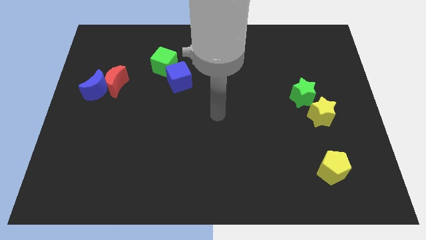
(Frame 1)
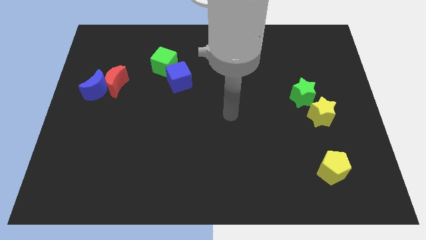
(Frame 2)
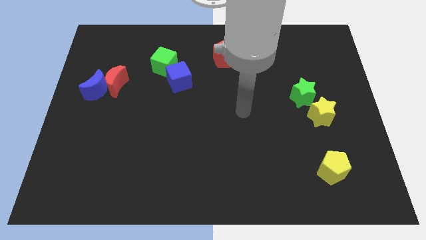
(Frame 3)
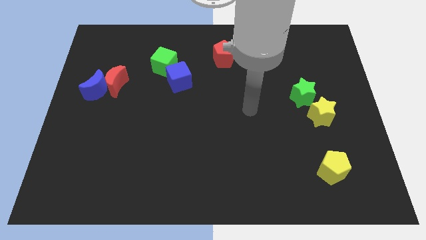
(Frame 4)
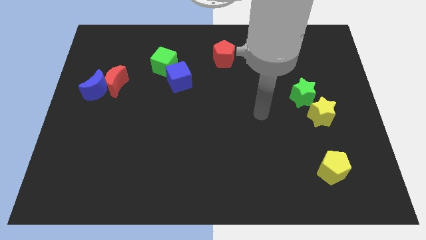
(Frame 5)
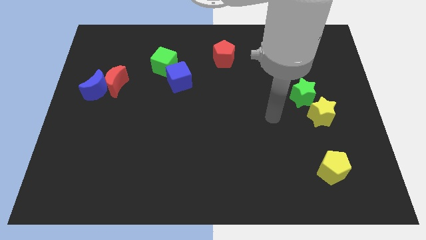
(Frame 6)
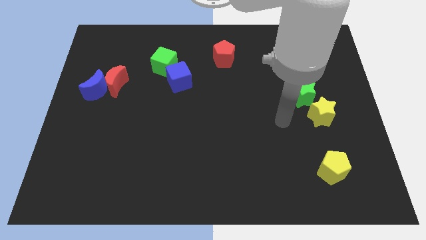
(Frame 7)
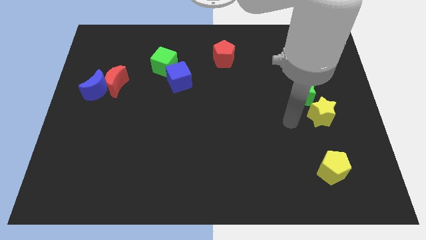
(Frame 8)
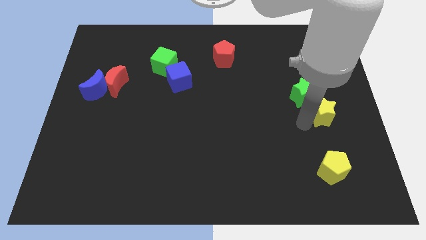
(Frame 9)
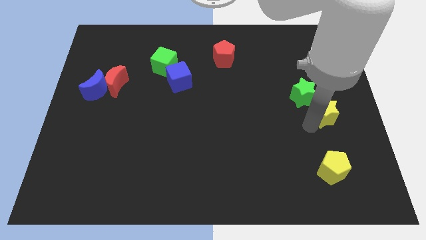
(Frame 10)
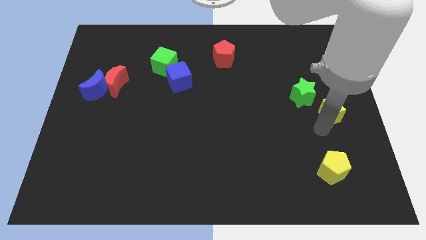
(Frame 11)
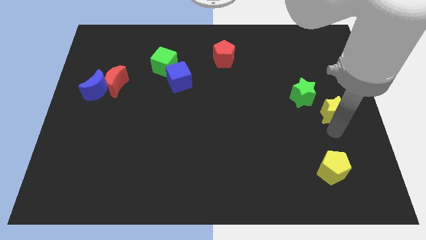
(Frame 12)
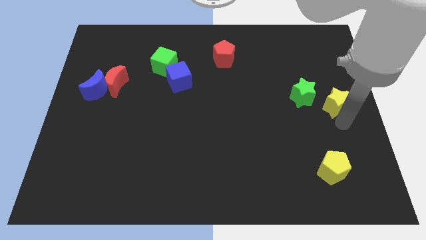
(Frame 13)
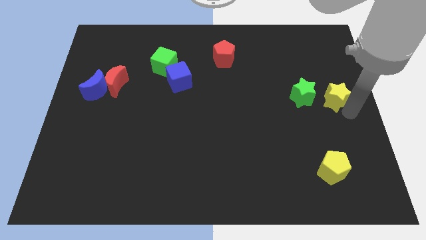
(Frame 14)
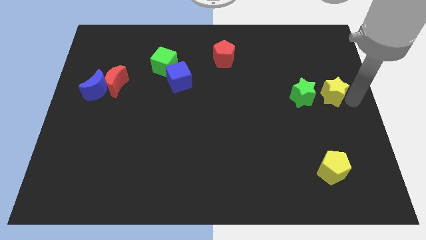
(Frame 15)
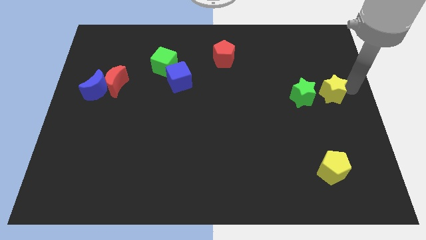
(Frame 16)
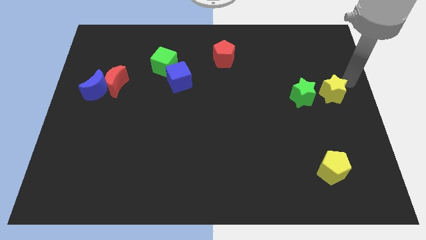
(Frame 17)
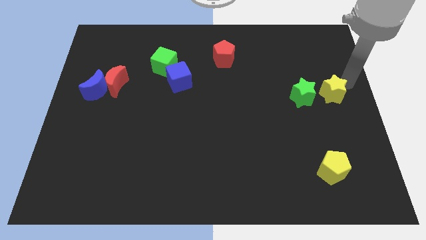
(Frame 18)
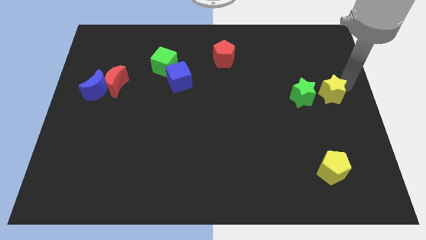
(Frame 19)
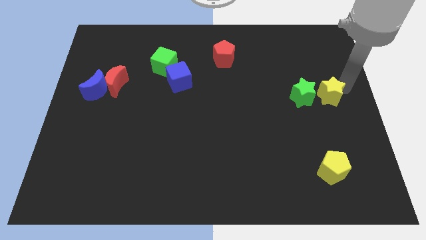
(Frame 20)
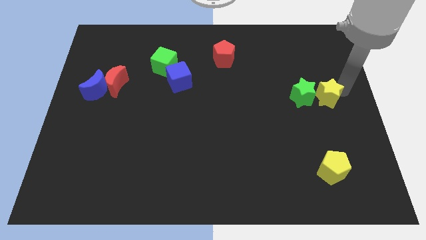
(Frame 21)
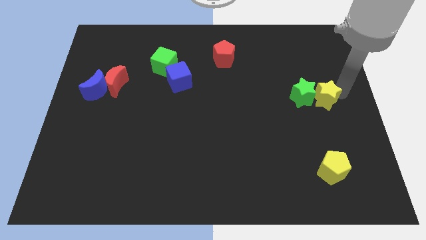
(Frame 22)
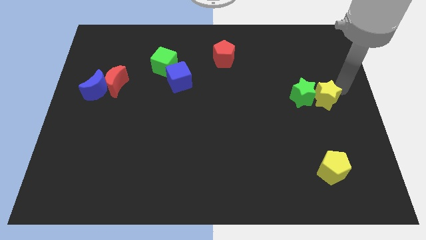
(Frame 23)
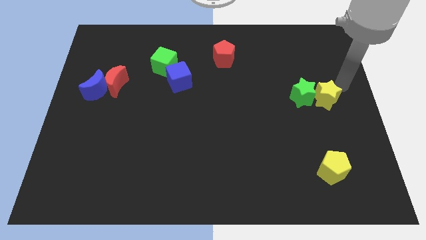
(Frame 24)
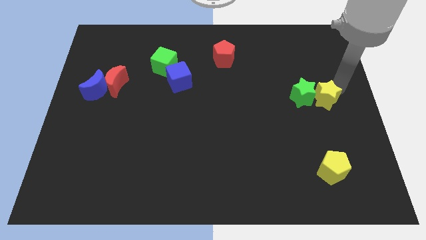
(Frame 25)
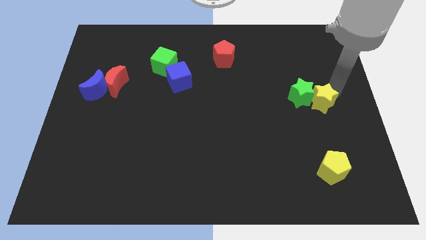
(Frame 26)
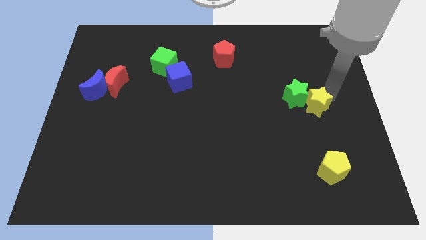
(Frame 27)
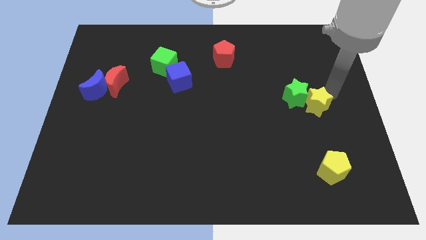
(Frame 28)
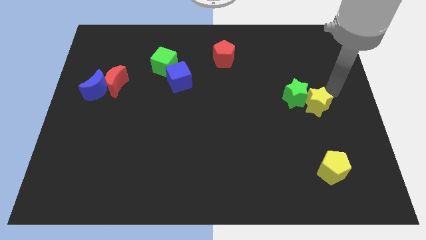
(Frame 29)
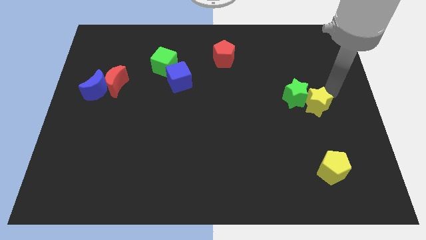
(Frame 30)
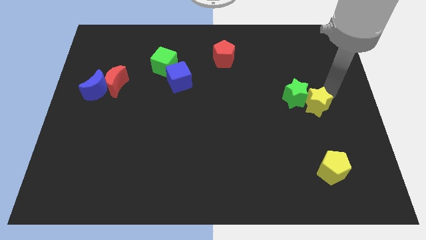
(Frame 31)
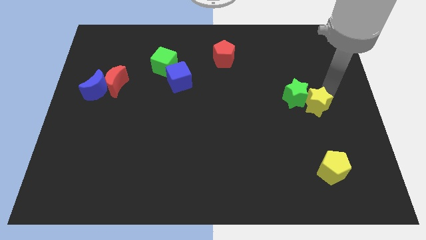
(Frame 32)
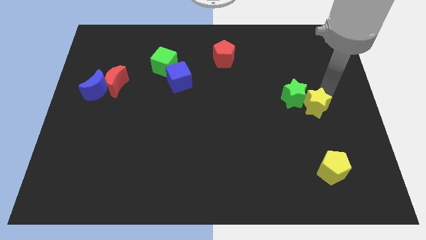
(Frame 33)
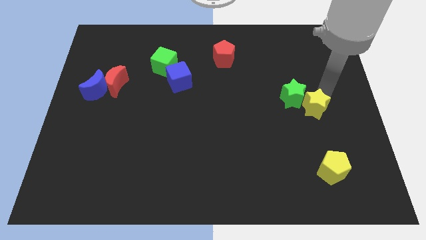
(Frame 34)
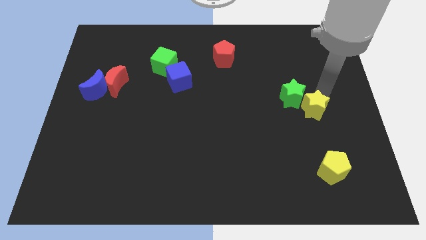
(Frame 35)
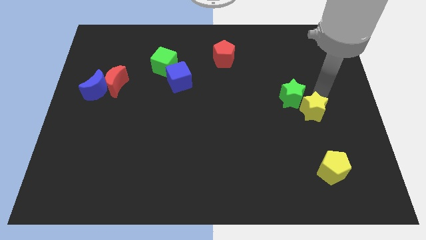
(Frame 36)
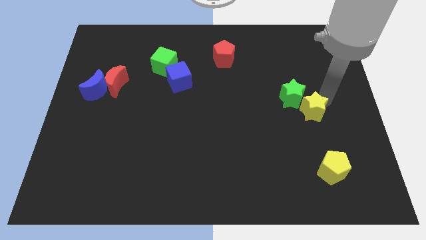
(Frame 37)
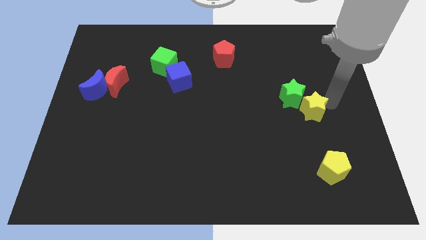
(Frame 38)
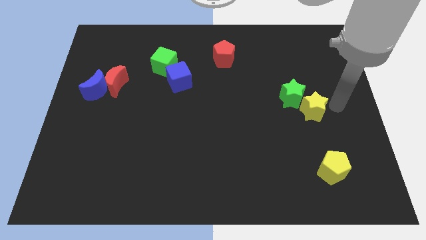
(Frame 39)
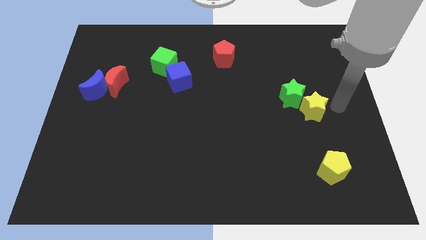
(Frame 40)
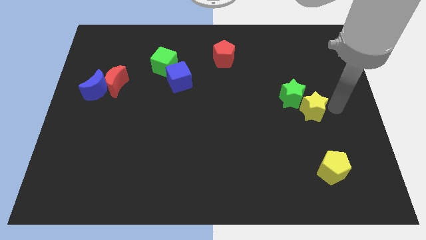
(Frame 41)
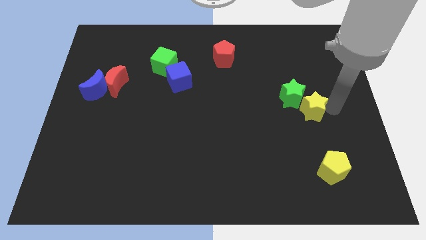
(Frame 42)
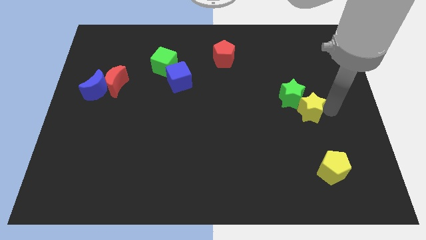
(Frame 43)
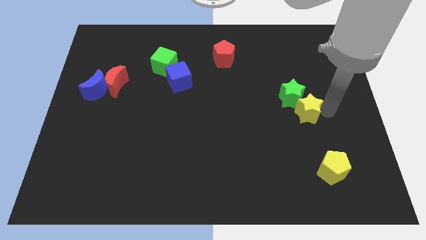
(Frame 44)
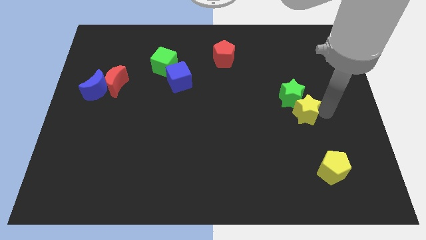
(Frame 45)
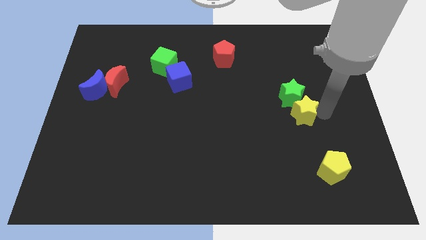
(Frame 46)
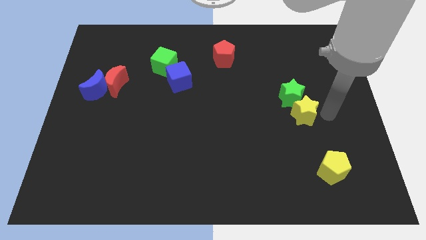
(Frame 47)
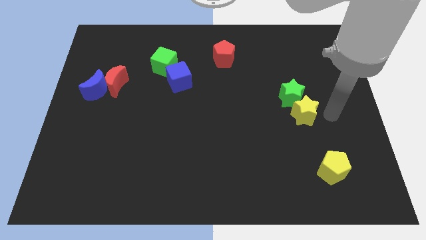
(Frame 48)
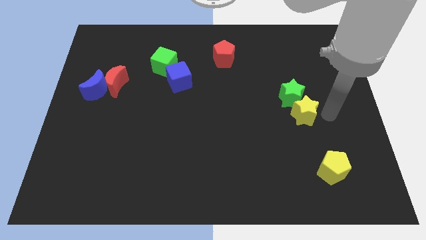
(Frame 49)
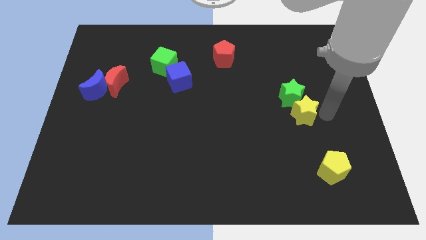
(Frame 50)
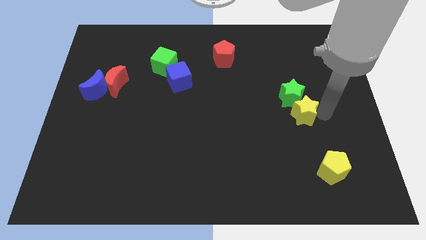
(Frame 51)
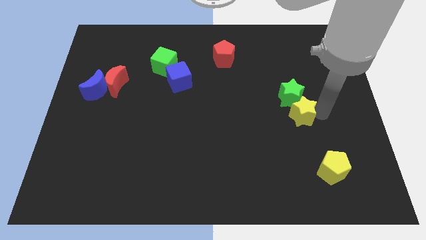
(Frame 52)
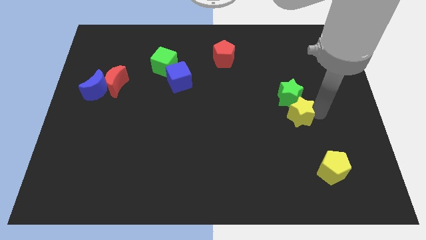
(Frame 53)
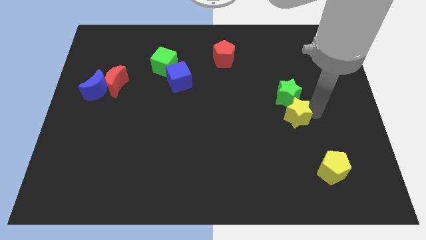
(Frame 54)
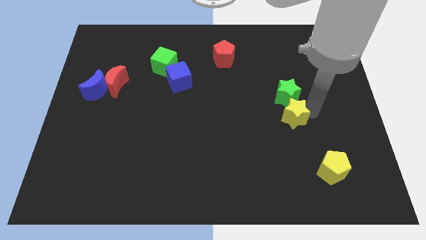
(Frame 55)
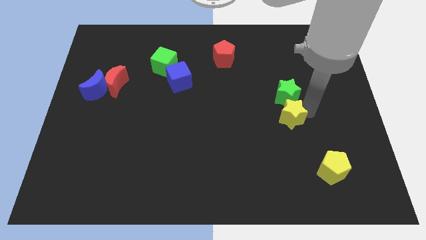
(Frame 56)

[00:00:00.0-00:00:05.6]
push the yellow star a little bit left

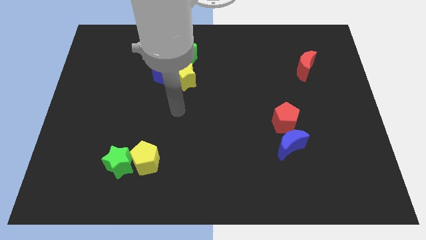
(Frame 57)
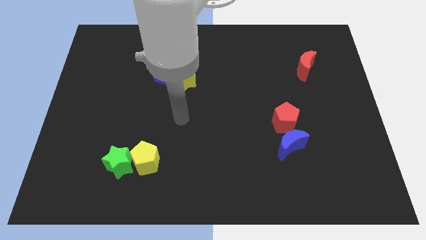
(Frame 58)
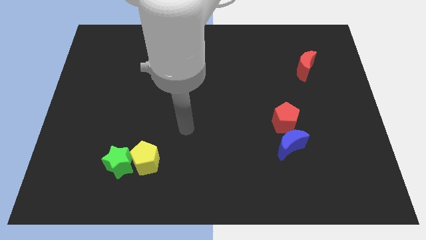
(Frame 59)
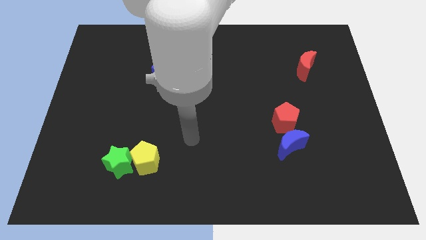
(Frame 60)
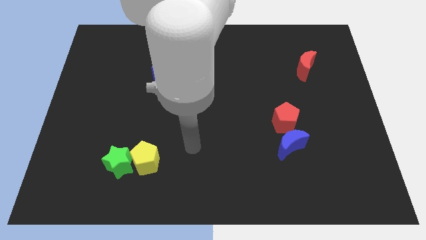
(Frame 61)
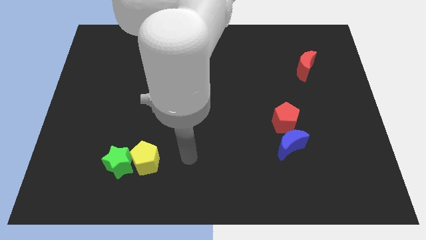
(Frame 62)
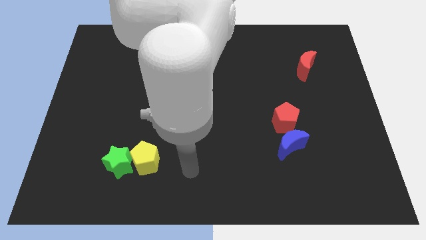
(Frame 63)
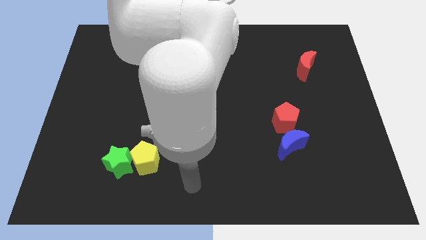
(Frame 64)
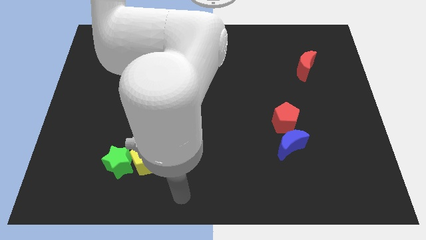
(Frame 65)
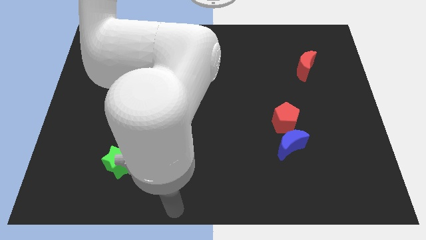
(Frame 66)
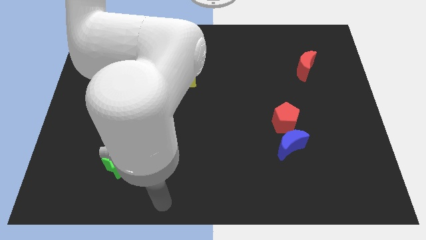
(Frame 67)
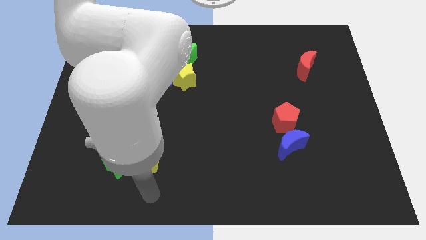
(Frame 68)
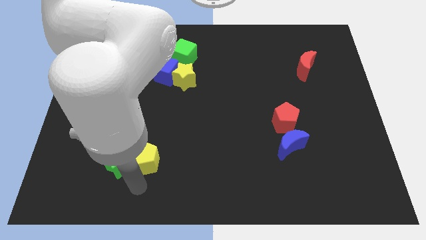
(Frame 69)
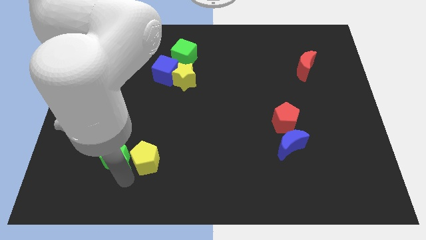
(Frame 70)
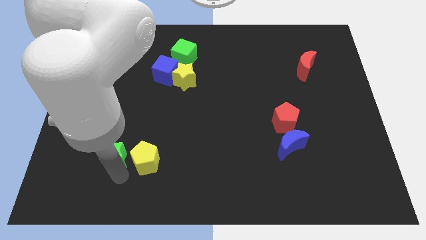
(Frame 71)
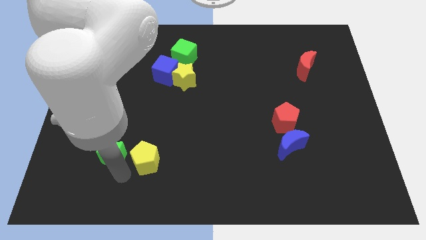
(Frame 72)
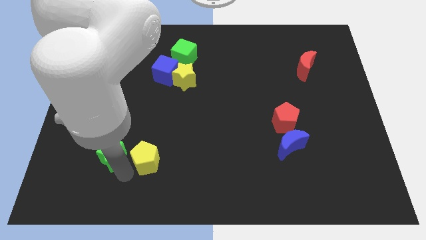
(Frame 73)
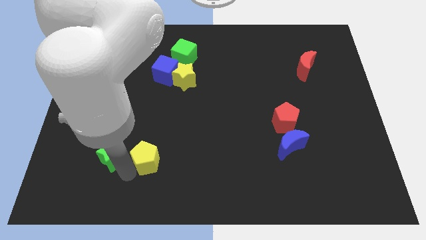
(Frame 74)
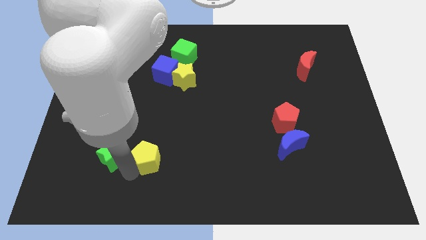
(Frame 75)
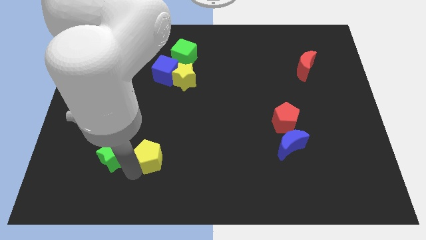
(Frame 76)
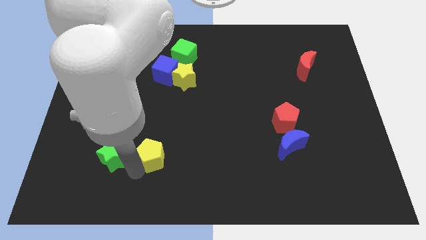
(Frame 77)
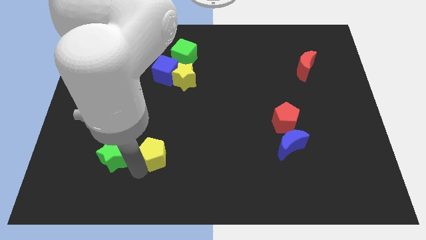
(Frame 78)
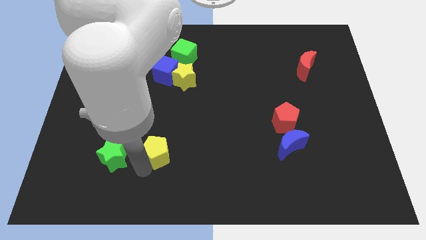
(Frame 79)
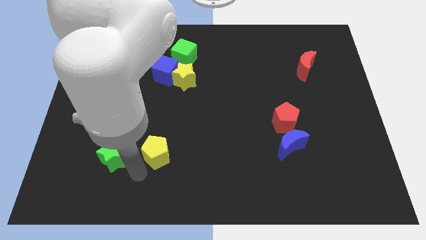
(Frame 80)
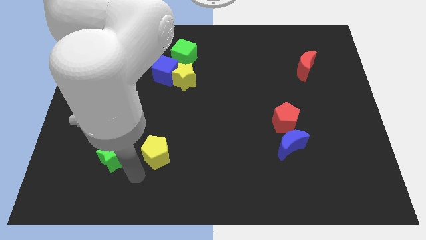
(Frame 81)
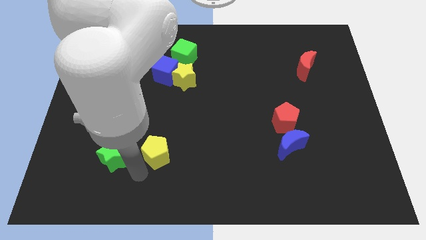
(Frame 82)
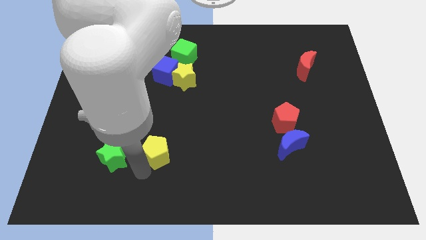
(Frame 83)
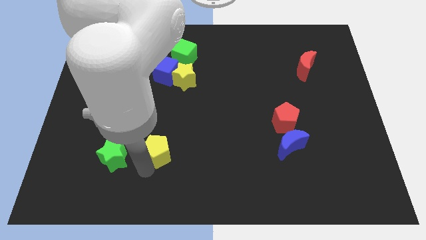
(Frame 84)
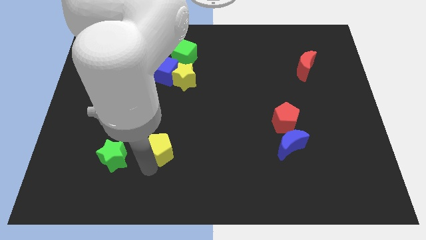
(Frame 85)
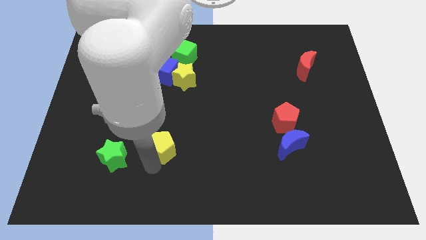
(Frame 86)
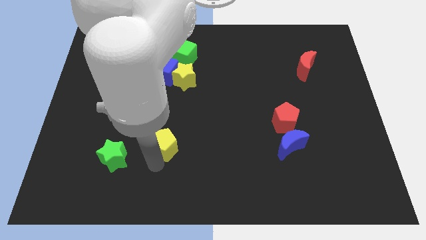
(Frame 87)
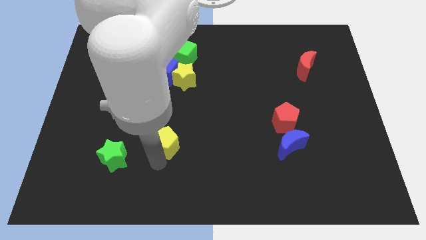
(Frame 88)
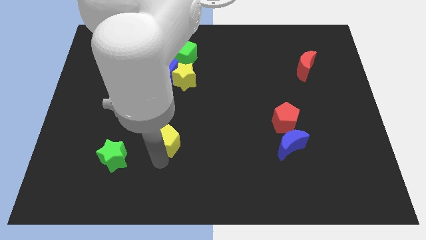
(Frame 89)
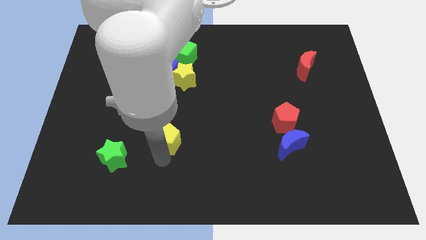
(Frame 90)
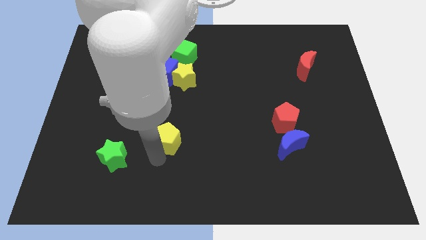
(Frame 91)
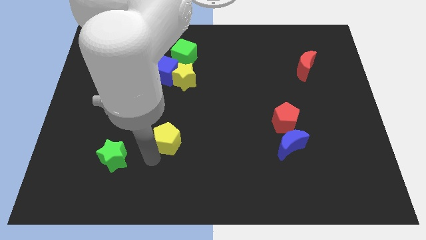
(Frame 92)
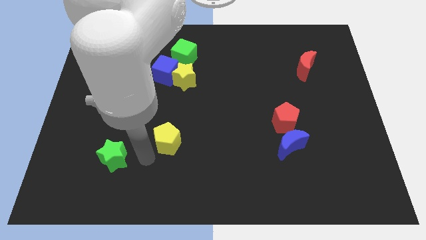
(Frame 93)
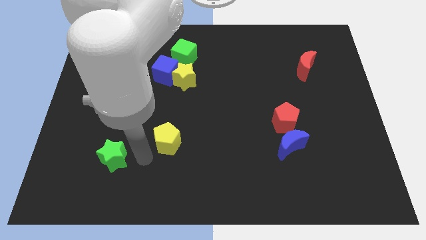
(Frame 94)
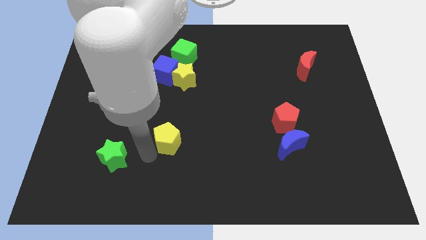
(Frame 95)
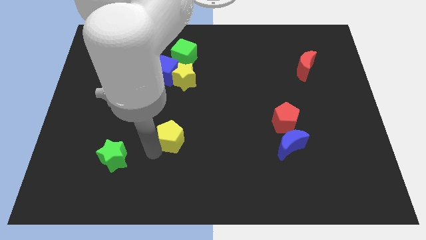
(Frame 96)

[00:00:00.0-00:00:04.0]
slightly slide the yellow pentagon upwards and to the right diagonally
